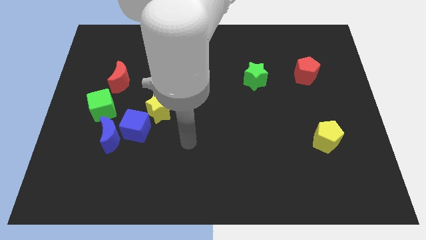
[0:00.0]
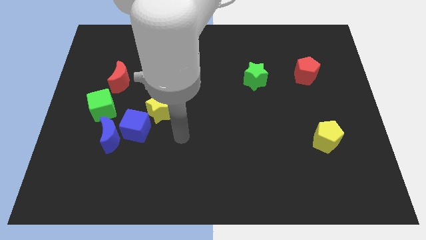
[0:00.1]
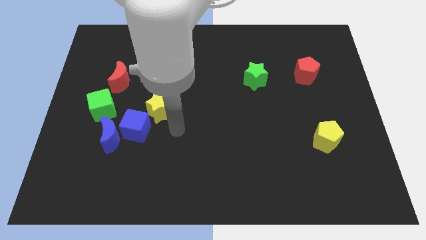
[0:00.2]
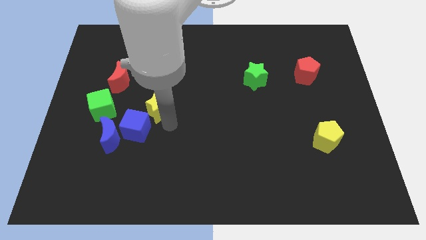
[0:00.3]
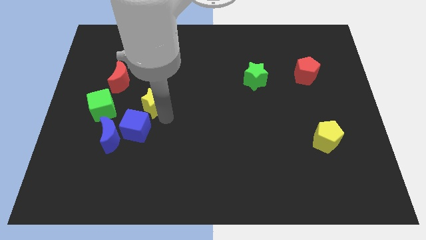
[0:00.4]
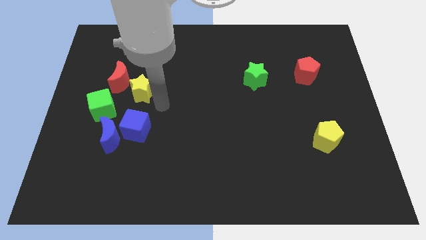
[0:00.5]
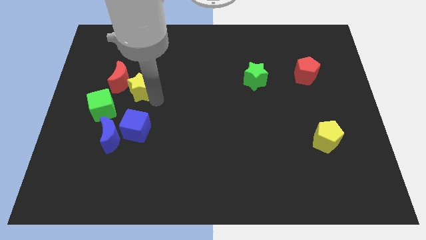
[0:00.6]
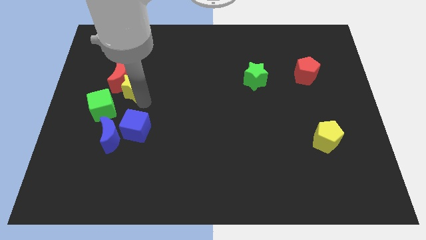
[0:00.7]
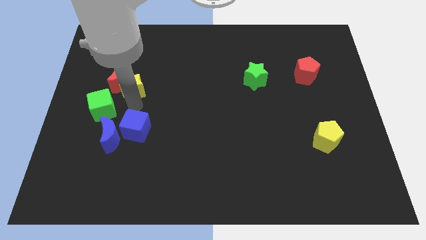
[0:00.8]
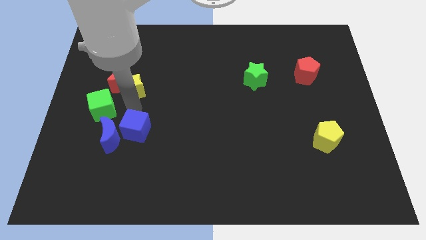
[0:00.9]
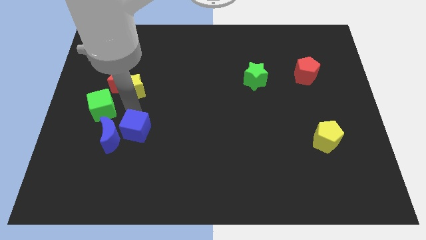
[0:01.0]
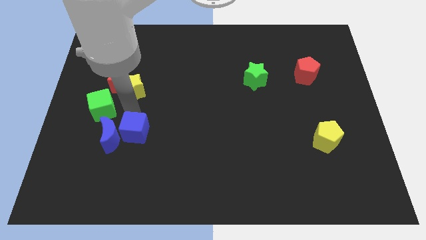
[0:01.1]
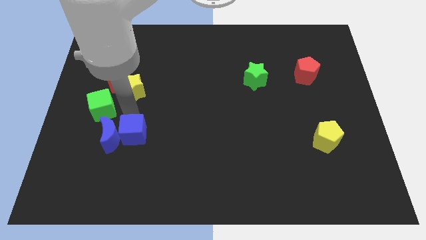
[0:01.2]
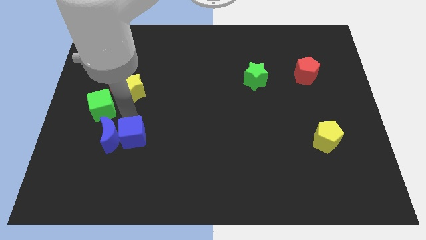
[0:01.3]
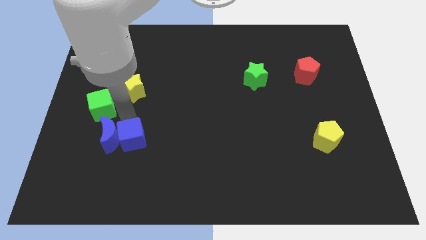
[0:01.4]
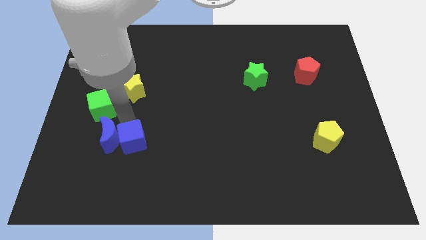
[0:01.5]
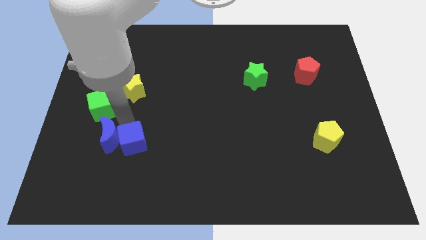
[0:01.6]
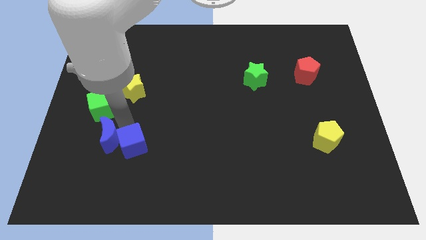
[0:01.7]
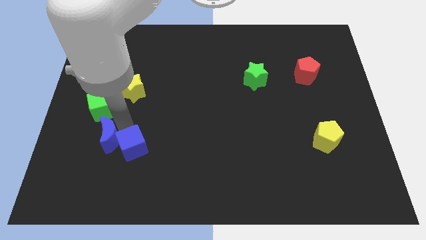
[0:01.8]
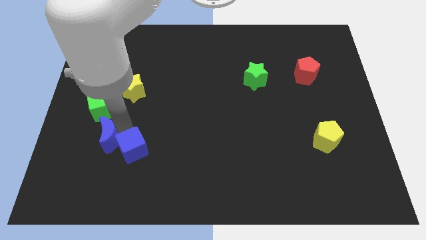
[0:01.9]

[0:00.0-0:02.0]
pull the blue cube apart from the blue moon and yellow star

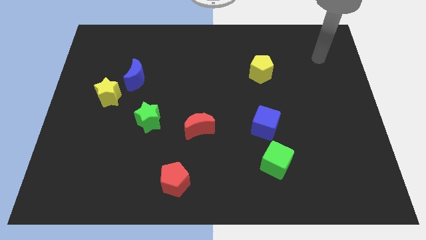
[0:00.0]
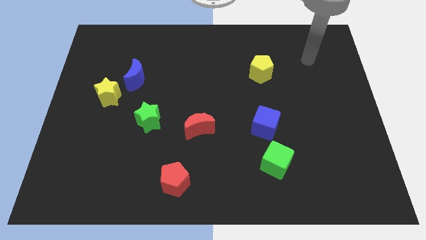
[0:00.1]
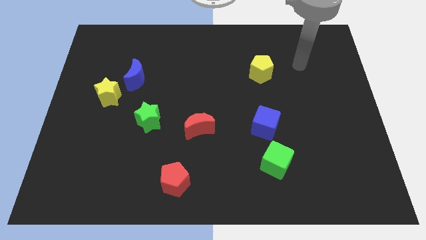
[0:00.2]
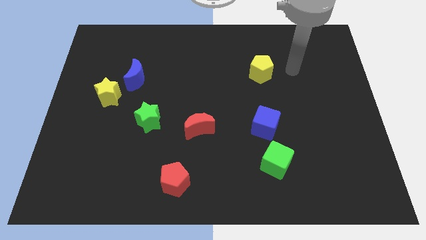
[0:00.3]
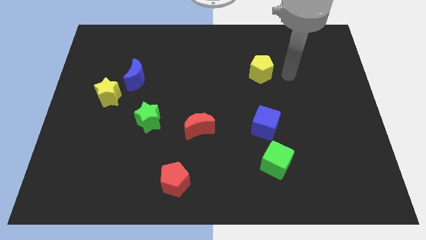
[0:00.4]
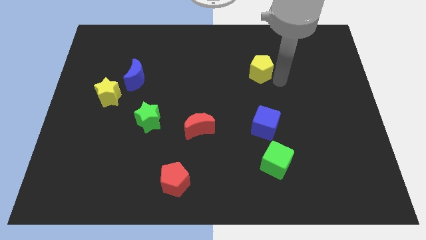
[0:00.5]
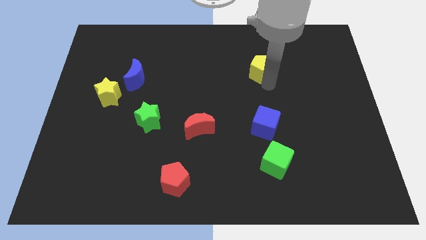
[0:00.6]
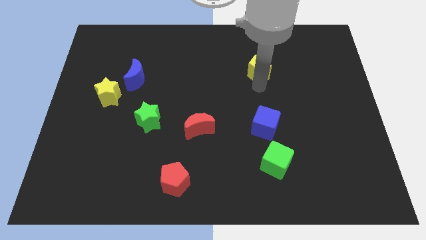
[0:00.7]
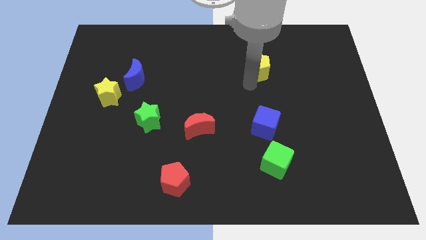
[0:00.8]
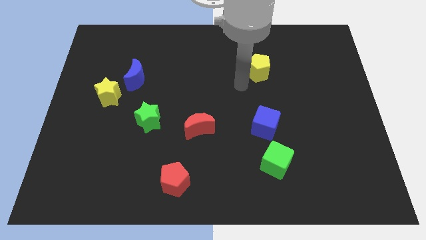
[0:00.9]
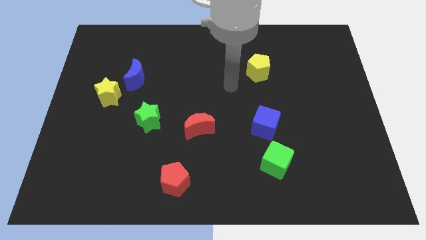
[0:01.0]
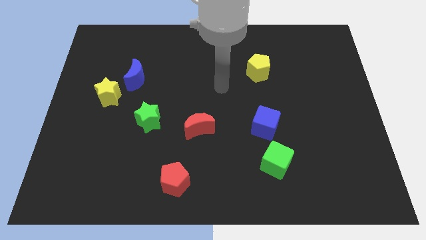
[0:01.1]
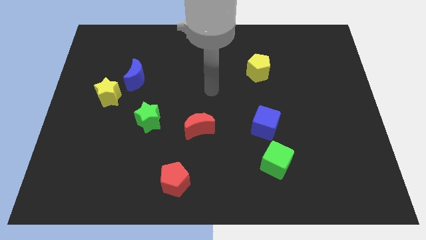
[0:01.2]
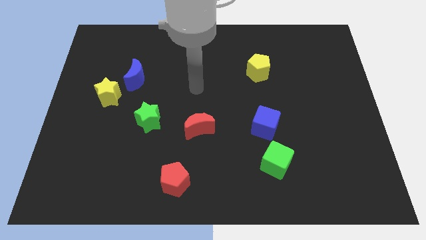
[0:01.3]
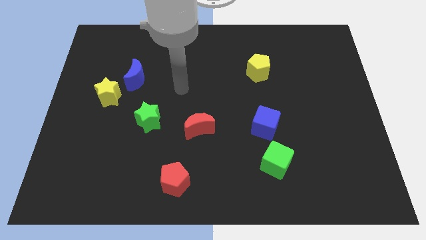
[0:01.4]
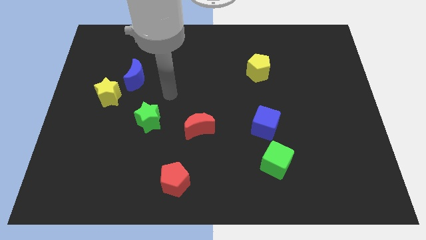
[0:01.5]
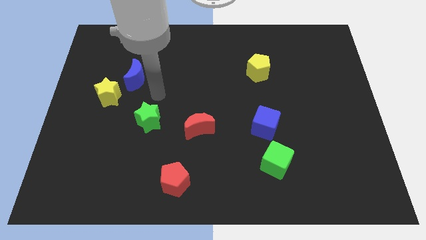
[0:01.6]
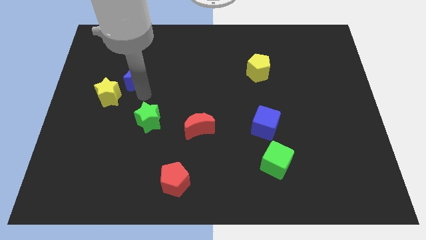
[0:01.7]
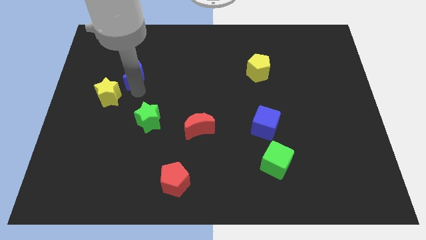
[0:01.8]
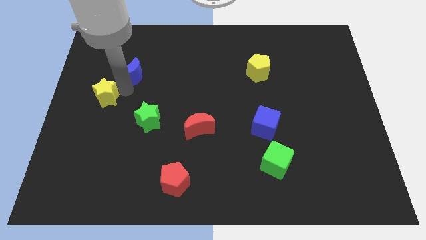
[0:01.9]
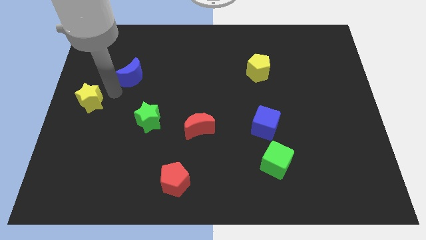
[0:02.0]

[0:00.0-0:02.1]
separate the blue moon from the yellow star

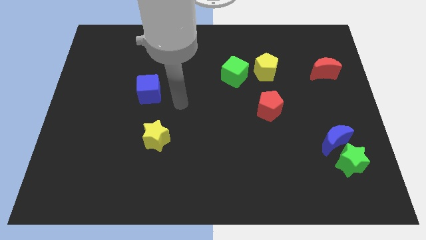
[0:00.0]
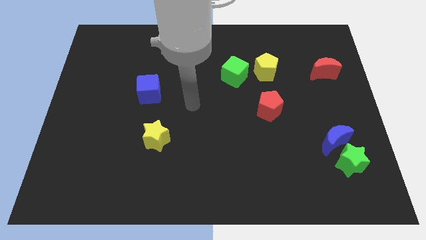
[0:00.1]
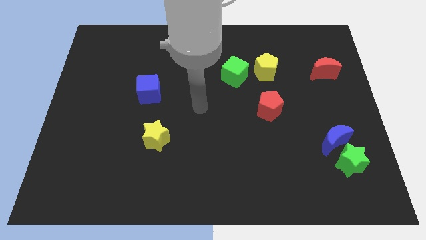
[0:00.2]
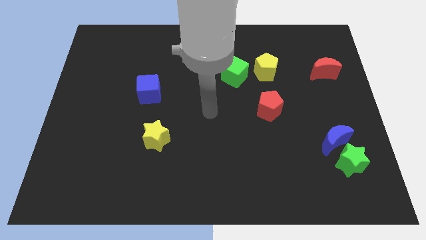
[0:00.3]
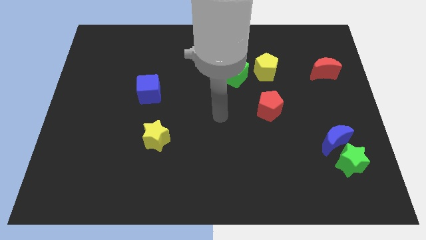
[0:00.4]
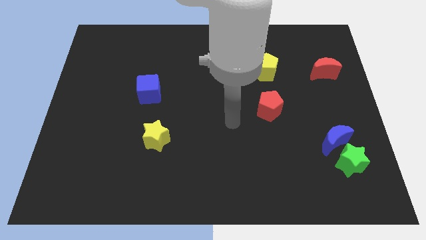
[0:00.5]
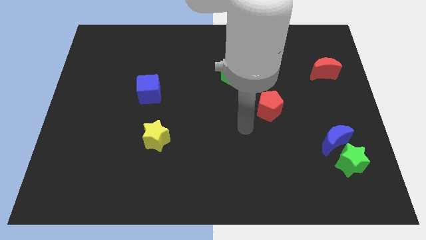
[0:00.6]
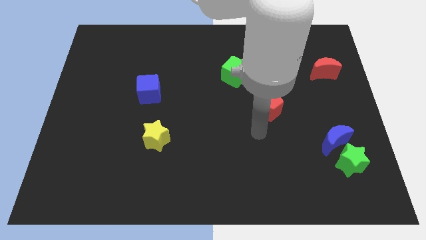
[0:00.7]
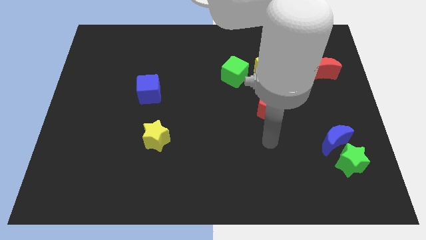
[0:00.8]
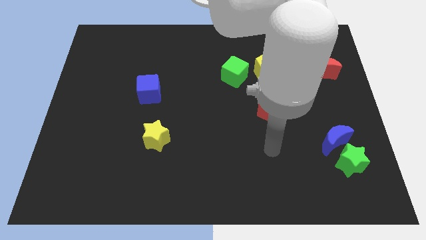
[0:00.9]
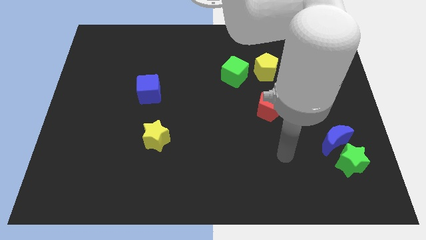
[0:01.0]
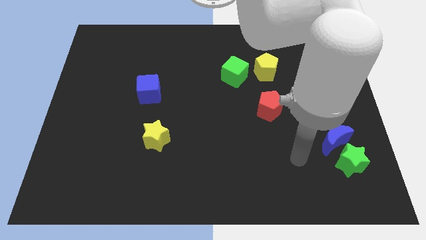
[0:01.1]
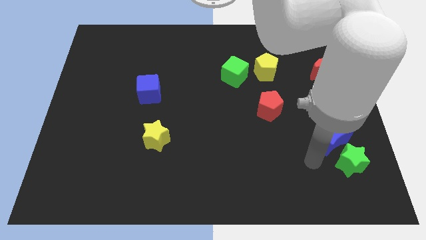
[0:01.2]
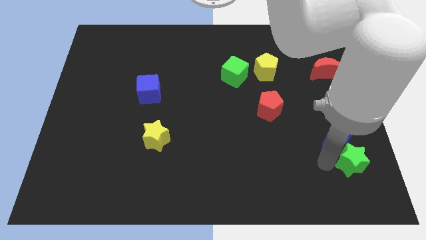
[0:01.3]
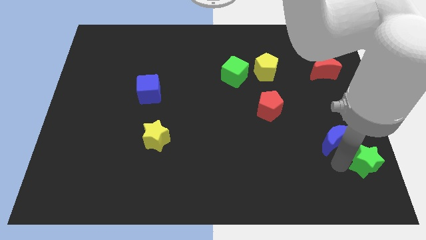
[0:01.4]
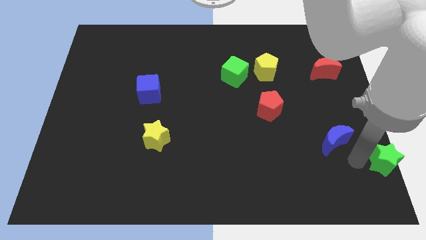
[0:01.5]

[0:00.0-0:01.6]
move the blue moon away from the green star

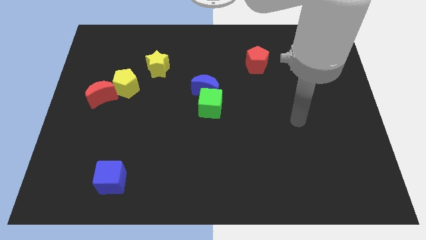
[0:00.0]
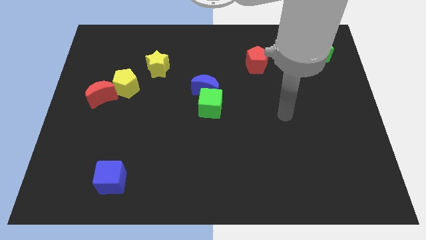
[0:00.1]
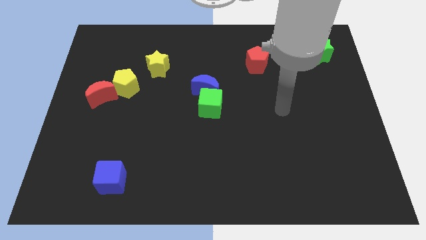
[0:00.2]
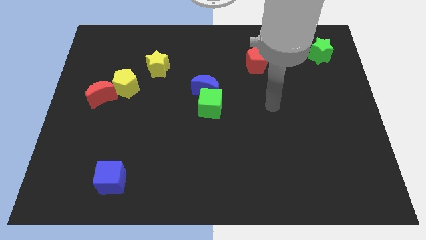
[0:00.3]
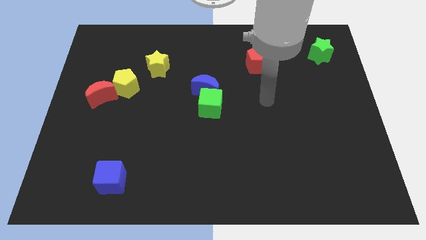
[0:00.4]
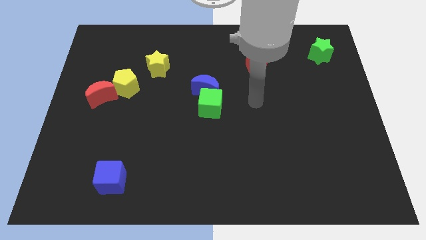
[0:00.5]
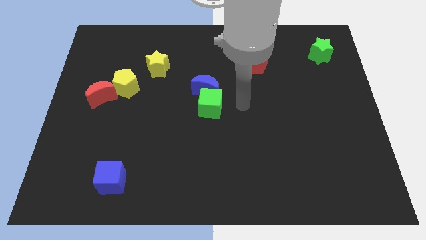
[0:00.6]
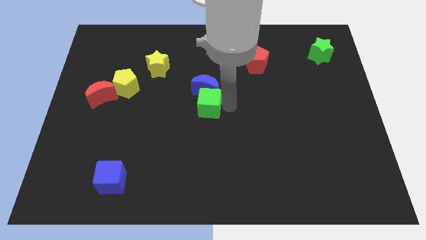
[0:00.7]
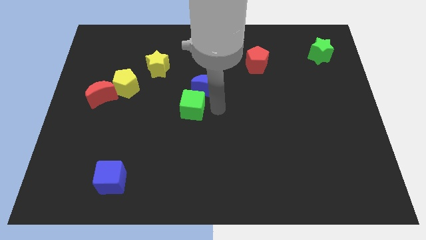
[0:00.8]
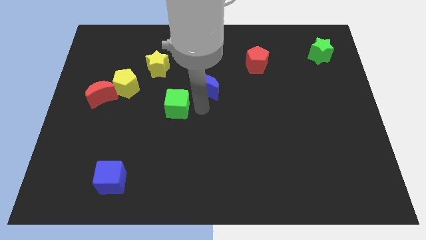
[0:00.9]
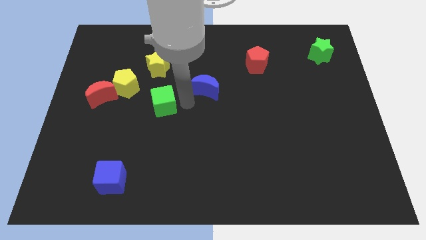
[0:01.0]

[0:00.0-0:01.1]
move the blue moon away from the green cube

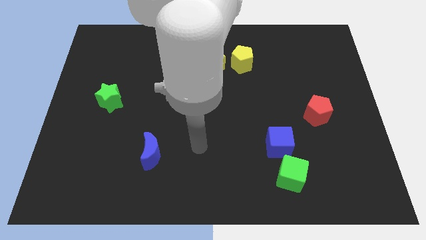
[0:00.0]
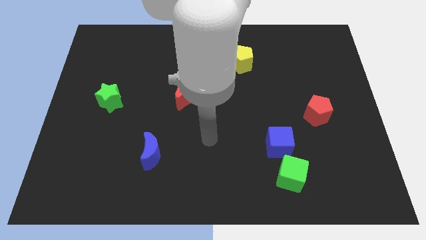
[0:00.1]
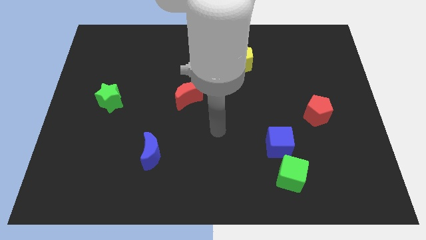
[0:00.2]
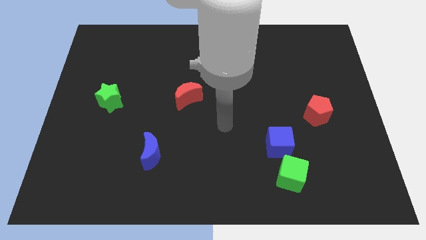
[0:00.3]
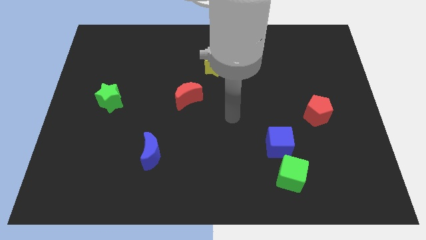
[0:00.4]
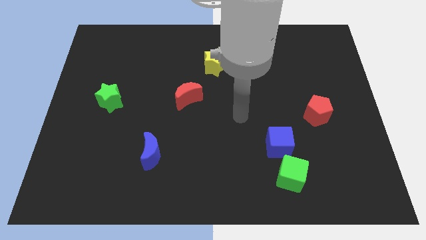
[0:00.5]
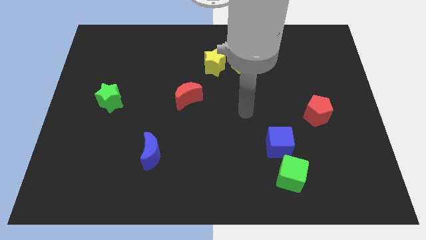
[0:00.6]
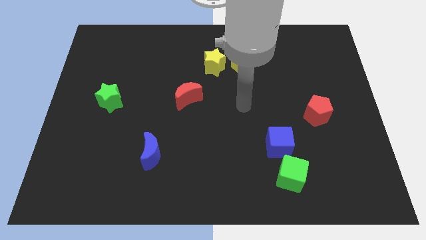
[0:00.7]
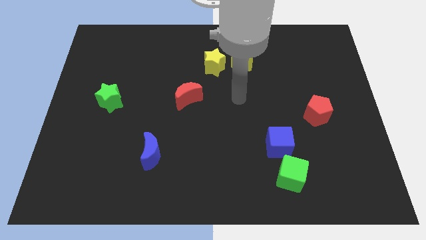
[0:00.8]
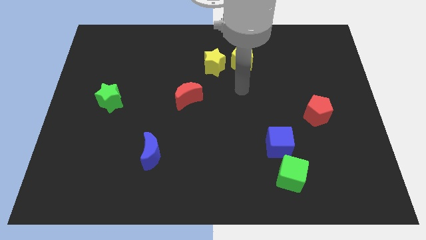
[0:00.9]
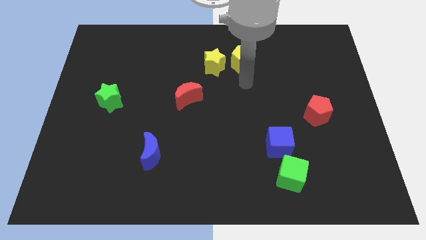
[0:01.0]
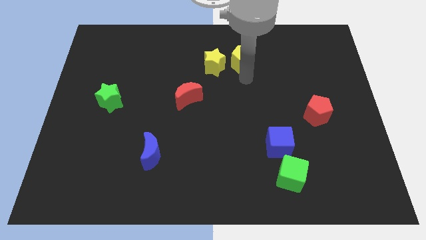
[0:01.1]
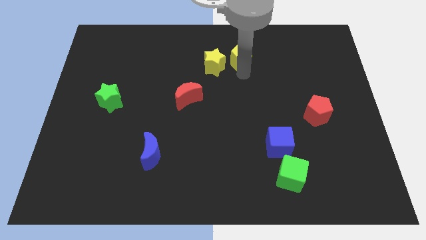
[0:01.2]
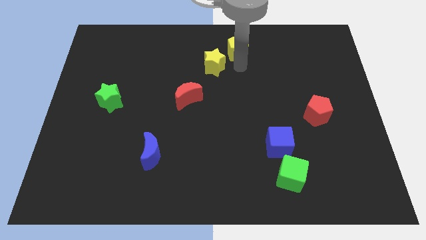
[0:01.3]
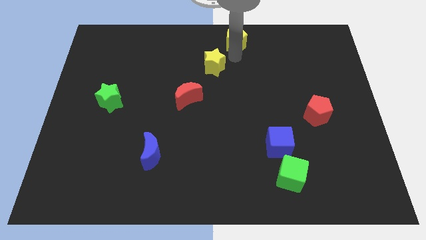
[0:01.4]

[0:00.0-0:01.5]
pull the yellow star apart from the yellow pentagon

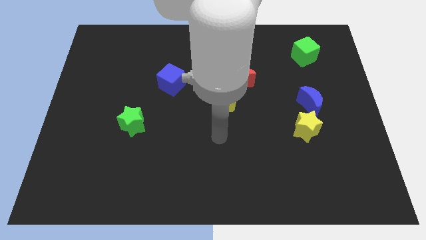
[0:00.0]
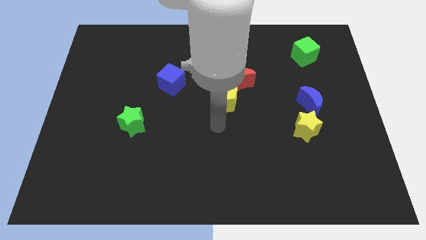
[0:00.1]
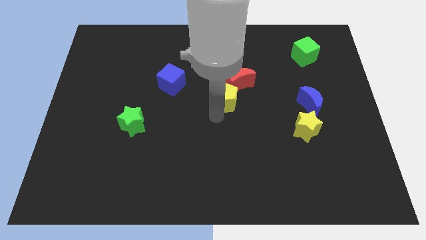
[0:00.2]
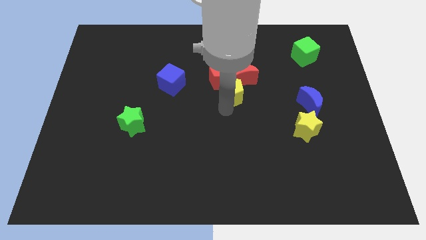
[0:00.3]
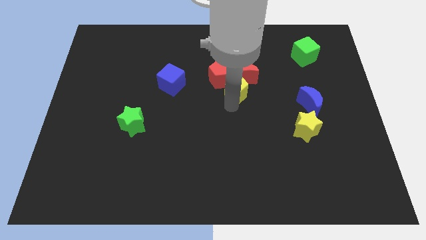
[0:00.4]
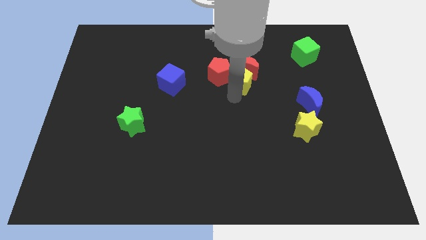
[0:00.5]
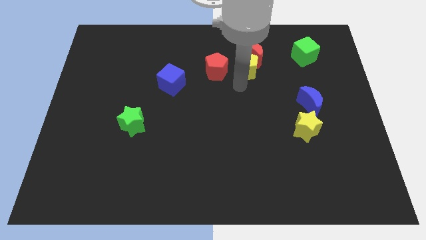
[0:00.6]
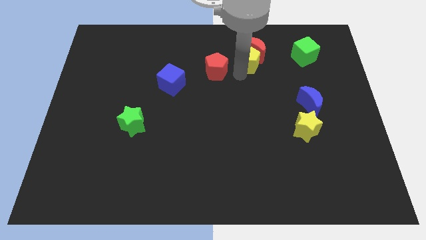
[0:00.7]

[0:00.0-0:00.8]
separate the red pentagon from the red moon and yellow pentagon

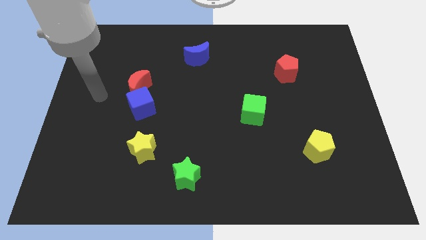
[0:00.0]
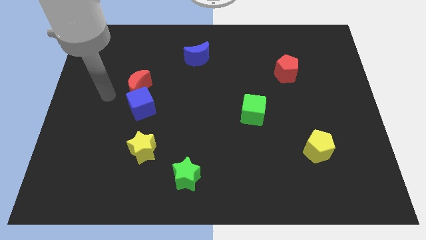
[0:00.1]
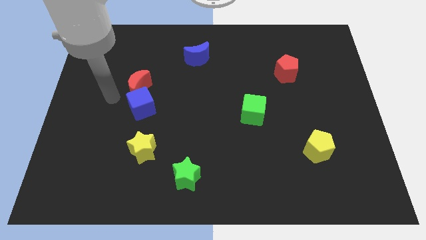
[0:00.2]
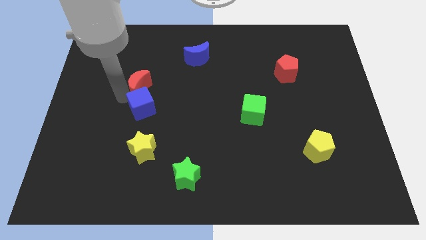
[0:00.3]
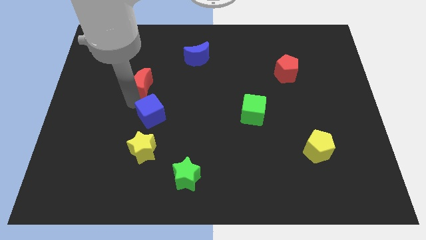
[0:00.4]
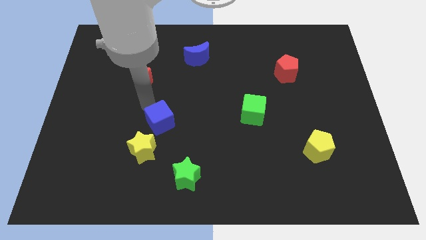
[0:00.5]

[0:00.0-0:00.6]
pull the red moon apart from the blue cube
